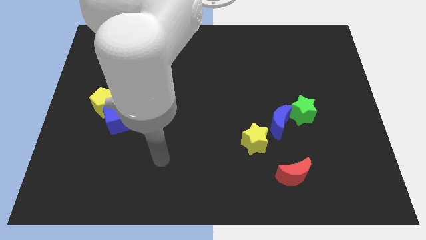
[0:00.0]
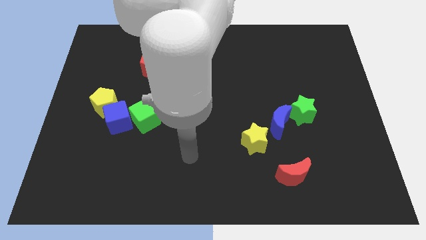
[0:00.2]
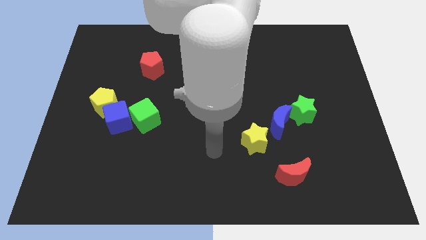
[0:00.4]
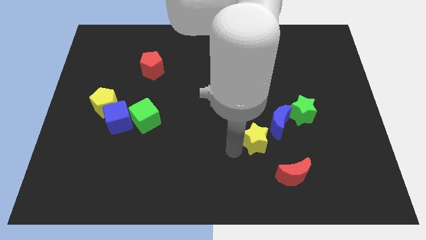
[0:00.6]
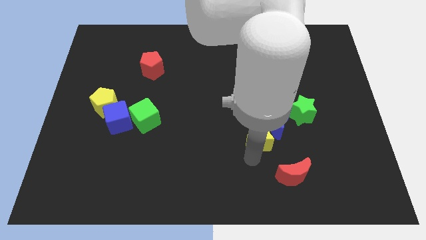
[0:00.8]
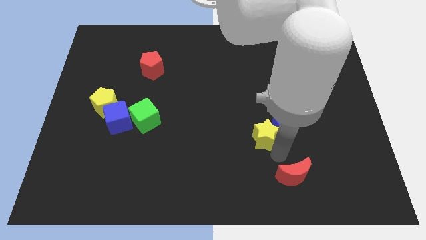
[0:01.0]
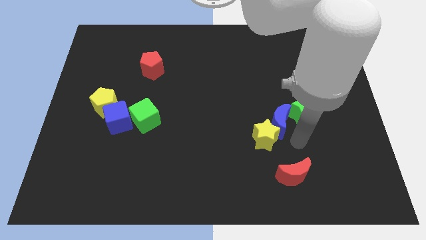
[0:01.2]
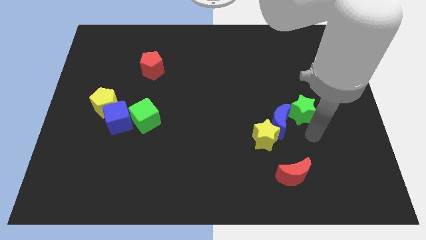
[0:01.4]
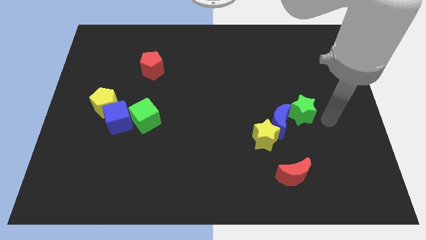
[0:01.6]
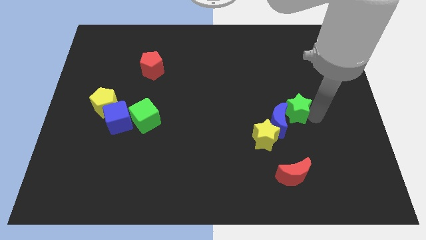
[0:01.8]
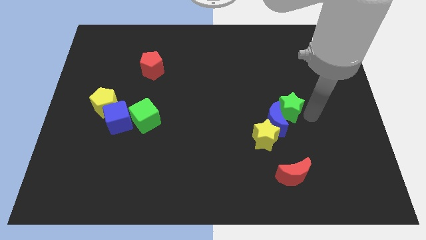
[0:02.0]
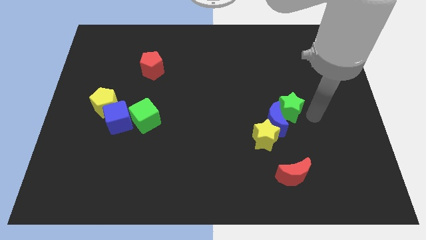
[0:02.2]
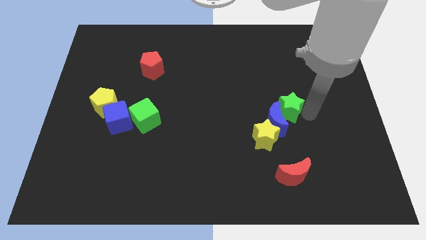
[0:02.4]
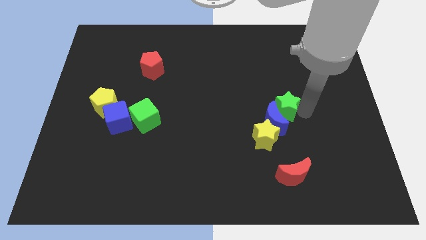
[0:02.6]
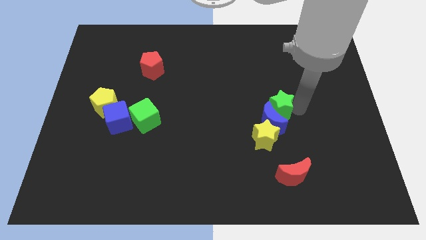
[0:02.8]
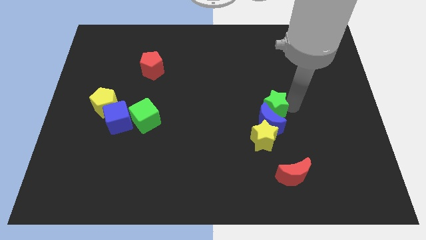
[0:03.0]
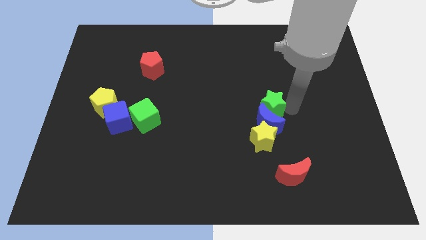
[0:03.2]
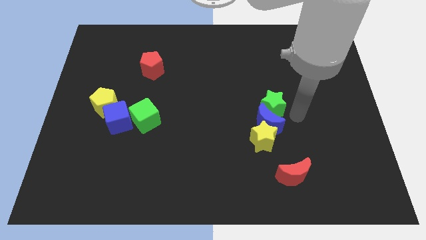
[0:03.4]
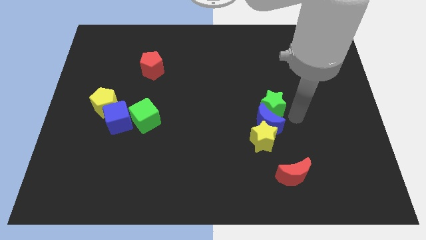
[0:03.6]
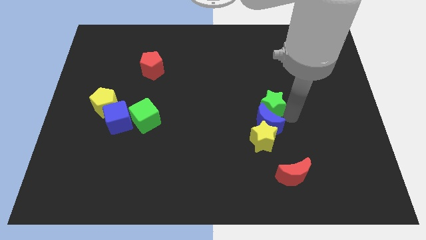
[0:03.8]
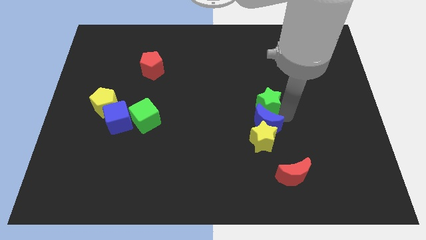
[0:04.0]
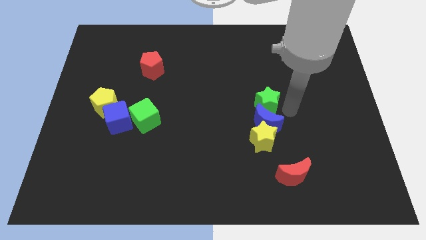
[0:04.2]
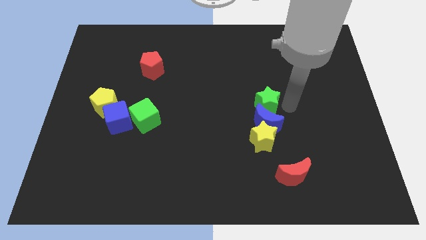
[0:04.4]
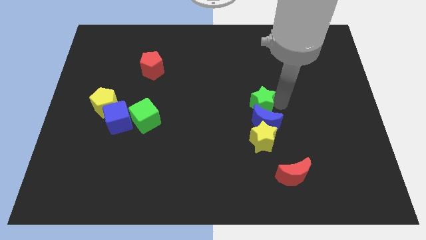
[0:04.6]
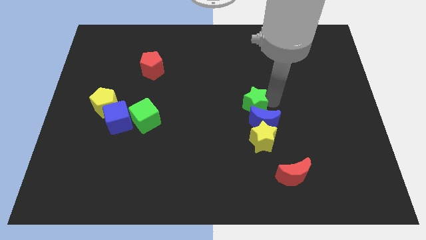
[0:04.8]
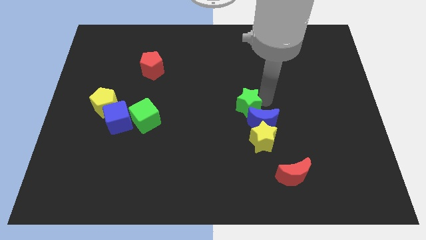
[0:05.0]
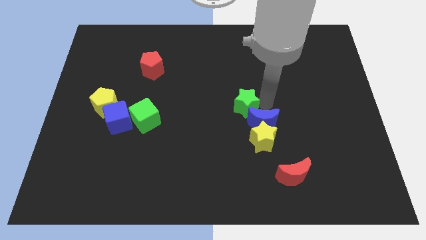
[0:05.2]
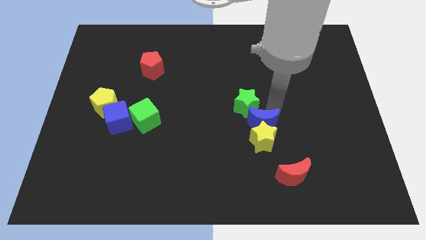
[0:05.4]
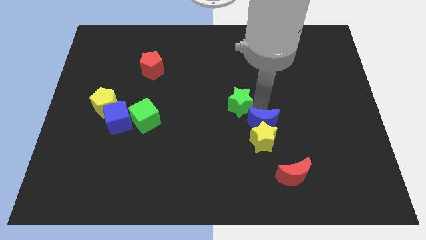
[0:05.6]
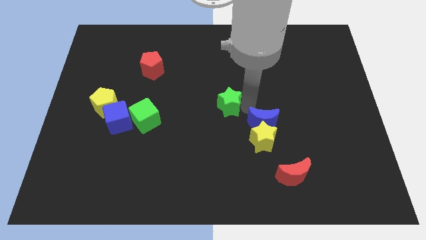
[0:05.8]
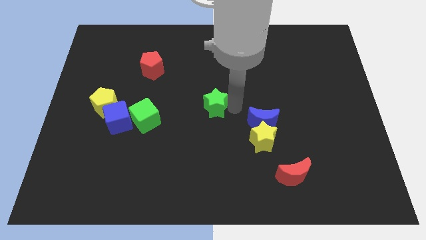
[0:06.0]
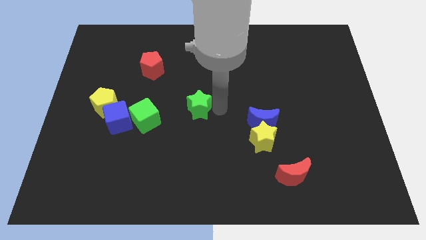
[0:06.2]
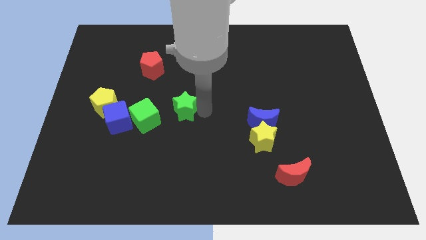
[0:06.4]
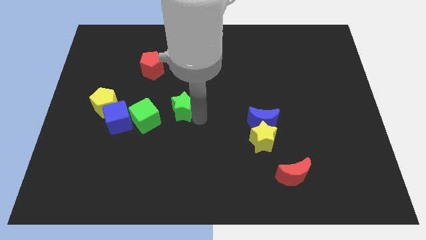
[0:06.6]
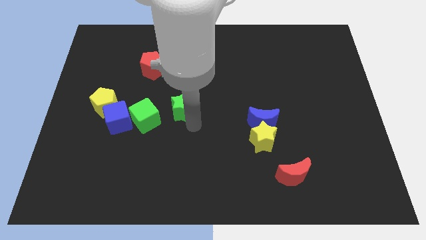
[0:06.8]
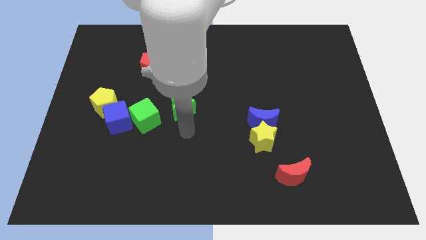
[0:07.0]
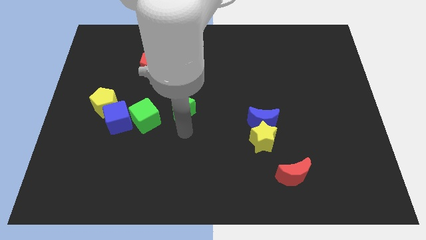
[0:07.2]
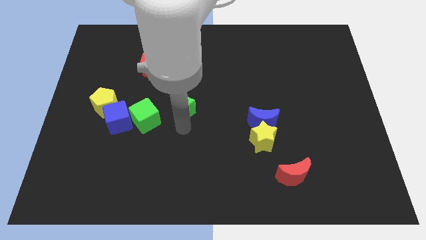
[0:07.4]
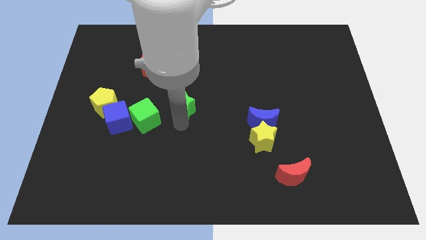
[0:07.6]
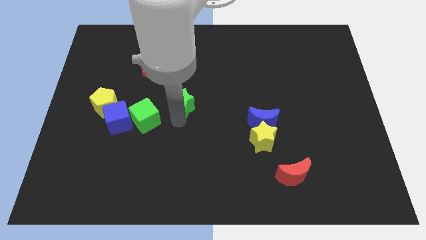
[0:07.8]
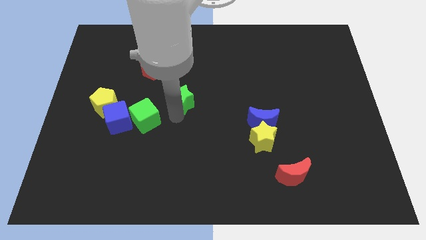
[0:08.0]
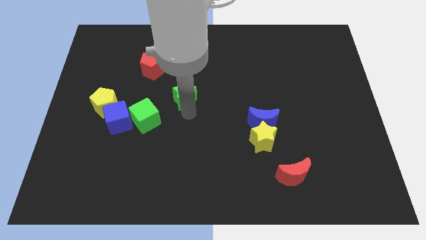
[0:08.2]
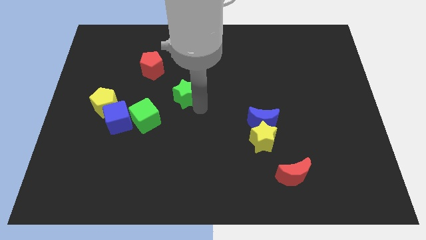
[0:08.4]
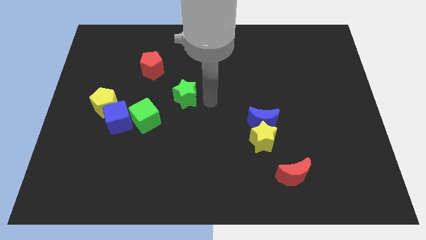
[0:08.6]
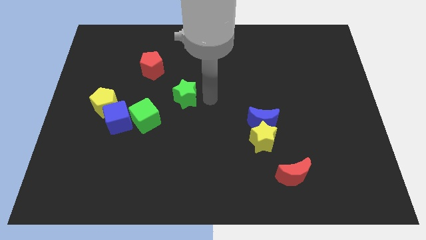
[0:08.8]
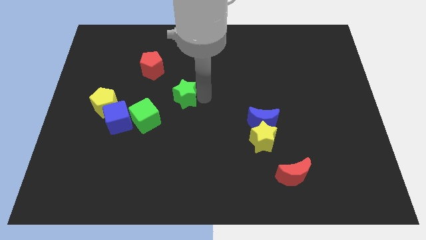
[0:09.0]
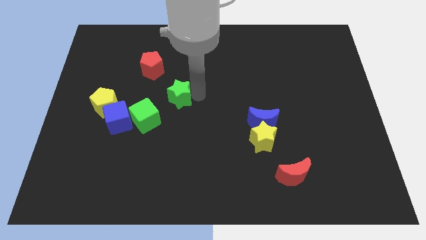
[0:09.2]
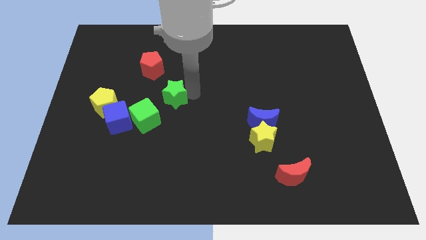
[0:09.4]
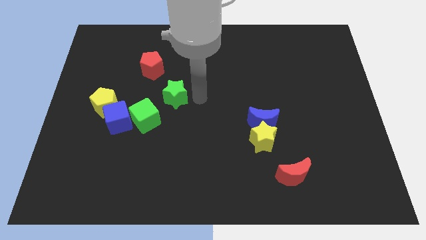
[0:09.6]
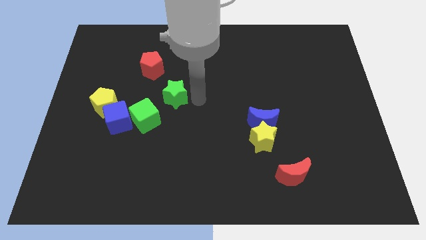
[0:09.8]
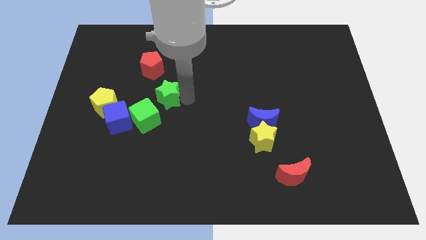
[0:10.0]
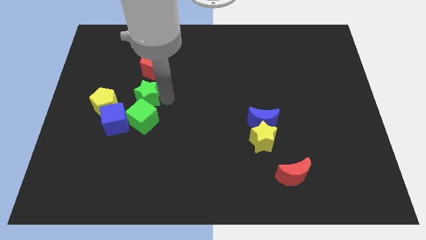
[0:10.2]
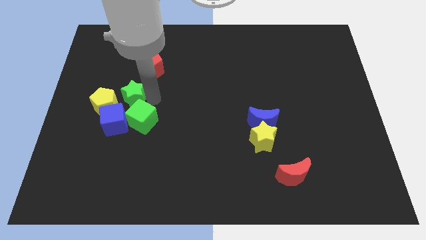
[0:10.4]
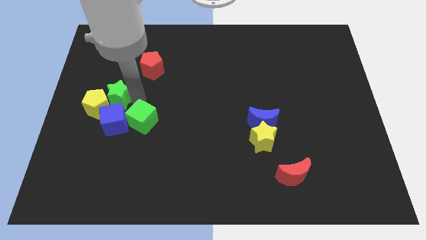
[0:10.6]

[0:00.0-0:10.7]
push the green star diagonally up and to the left of the blue cube

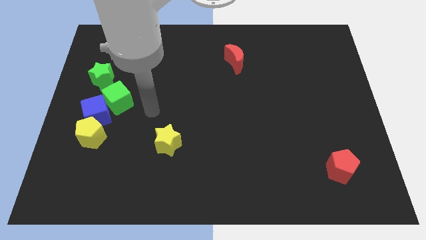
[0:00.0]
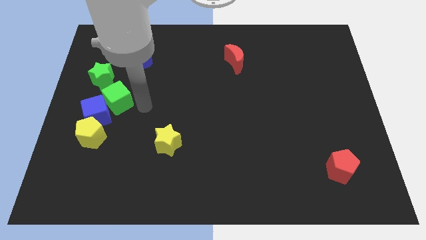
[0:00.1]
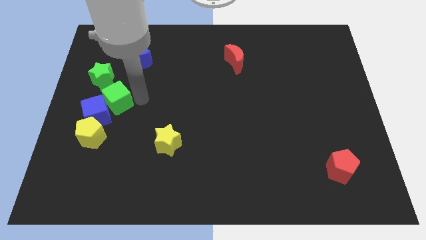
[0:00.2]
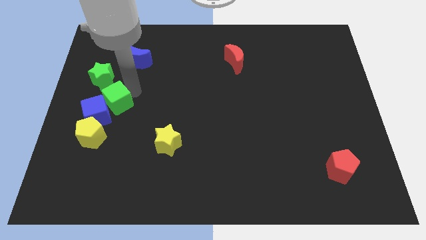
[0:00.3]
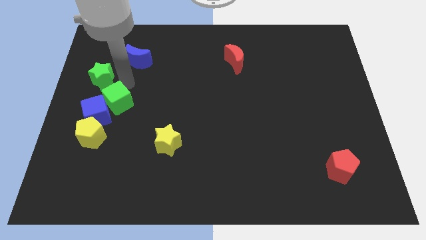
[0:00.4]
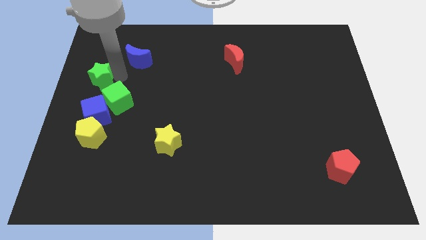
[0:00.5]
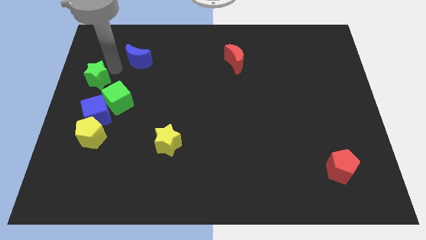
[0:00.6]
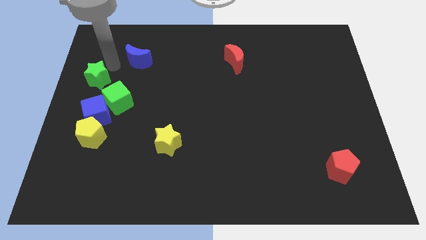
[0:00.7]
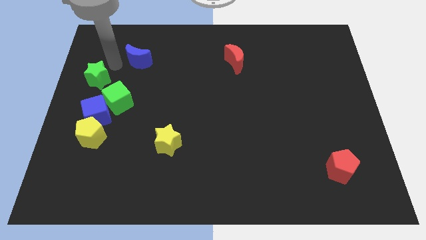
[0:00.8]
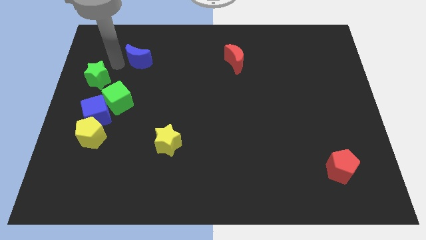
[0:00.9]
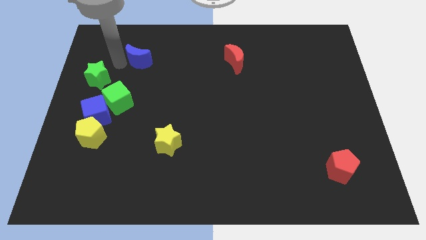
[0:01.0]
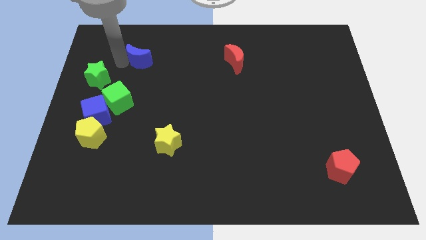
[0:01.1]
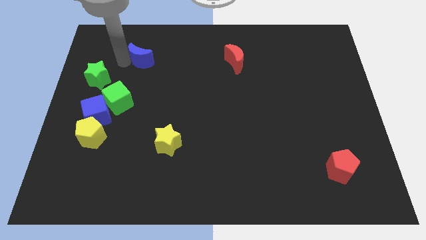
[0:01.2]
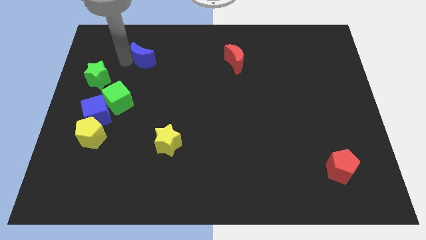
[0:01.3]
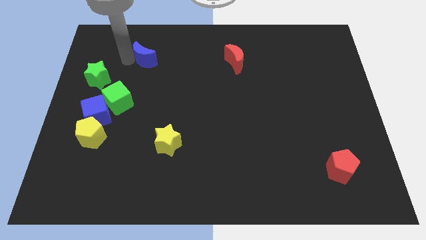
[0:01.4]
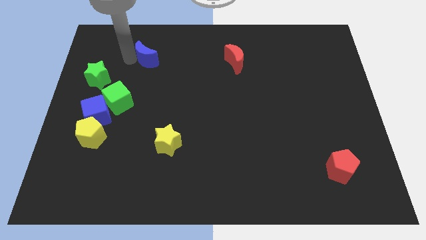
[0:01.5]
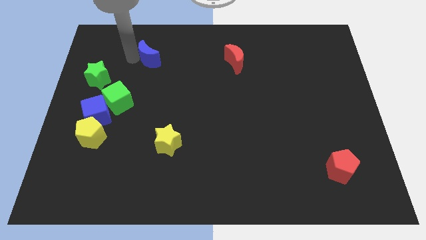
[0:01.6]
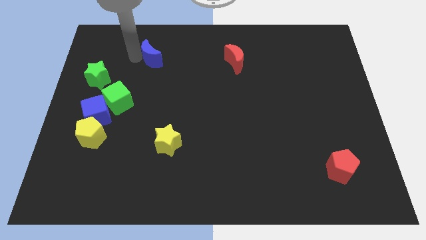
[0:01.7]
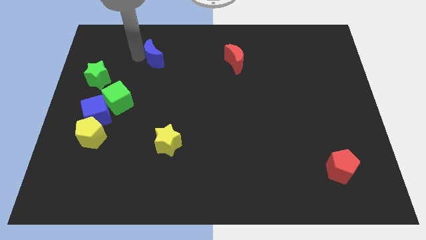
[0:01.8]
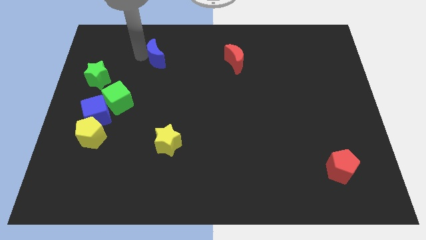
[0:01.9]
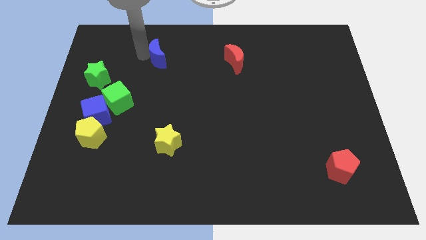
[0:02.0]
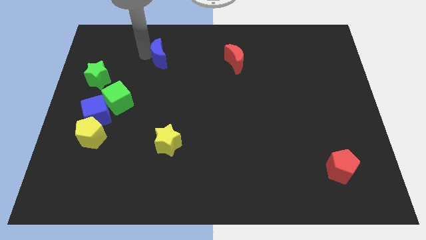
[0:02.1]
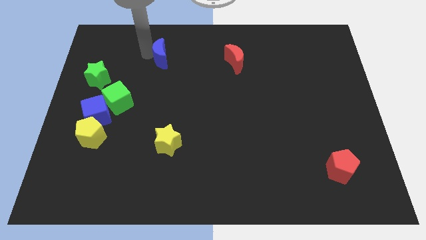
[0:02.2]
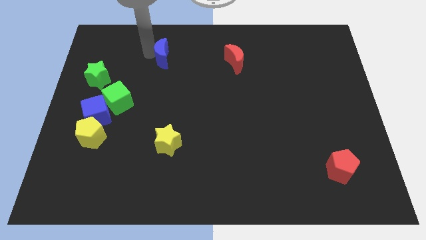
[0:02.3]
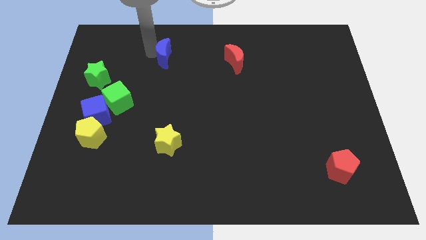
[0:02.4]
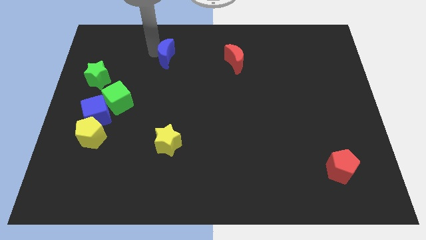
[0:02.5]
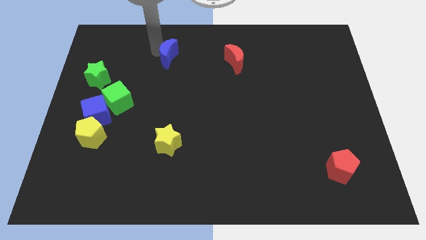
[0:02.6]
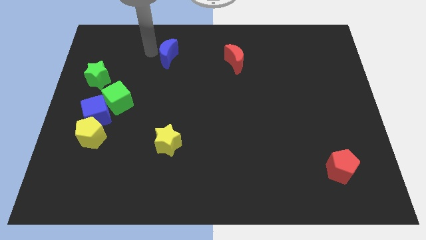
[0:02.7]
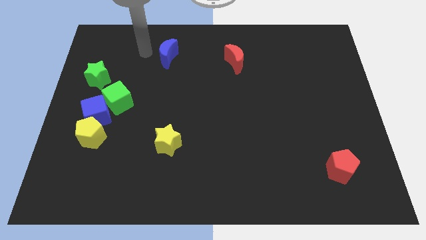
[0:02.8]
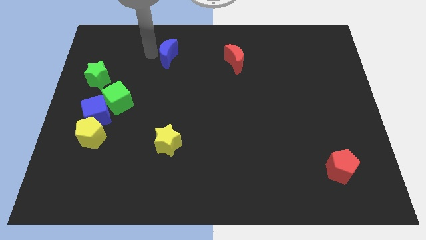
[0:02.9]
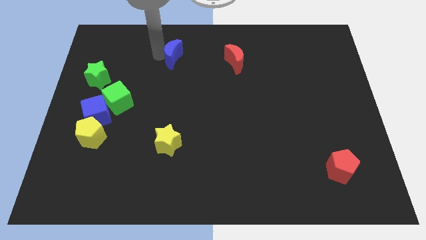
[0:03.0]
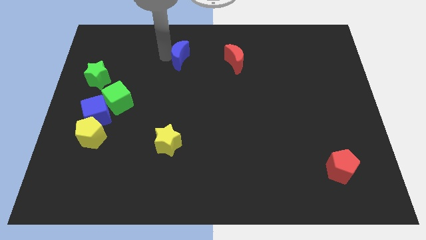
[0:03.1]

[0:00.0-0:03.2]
move the blue moon just left of the red moon
